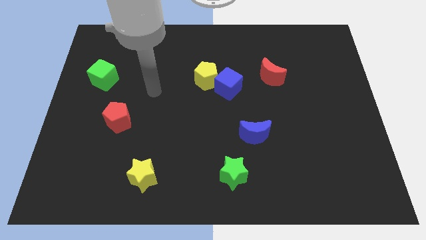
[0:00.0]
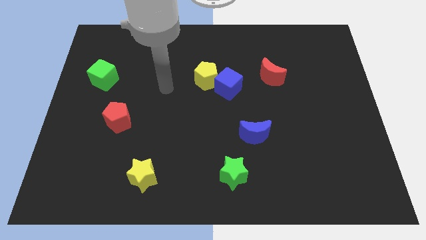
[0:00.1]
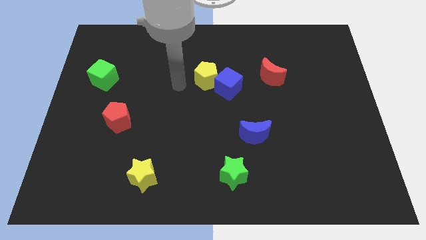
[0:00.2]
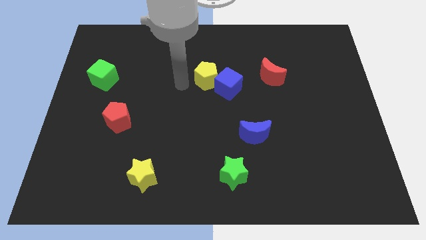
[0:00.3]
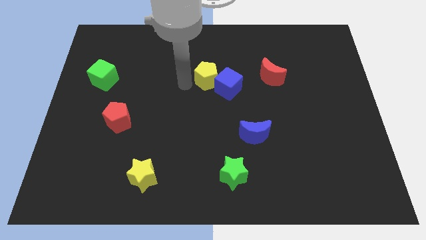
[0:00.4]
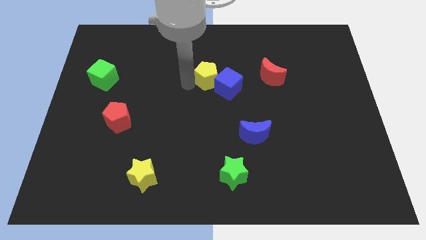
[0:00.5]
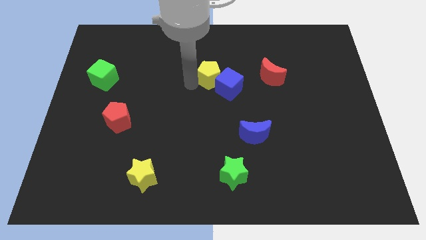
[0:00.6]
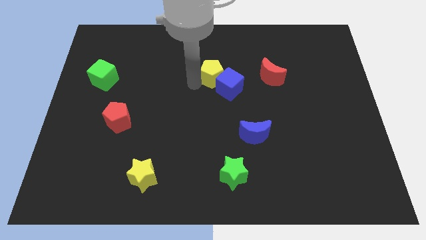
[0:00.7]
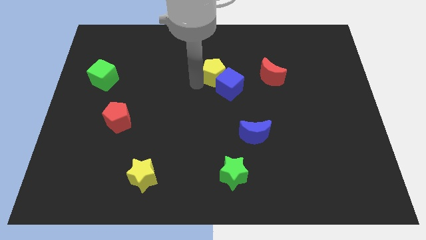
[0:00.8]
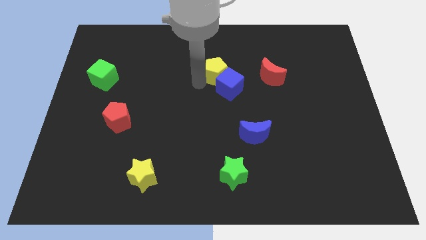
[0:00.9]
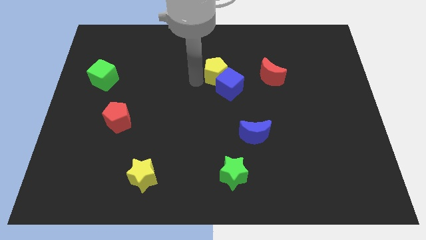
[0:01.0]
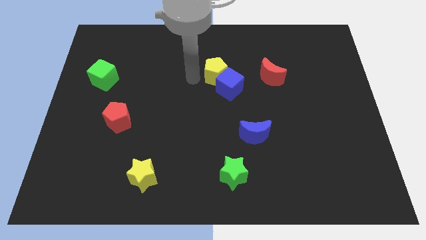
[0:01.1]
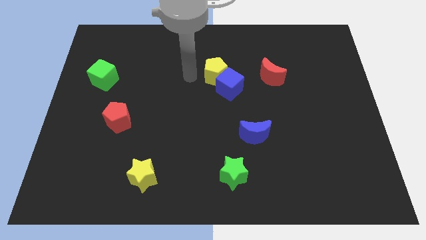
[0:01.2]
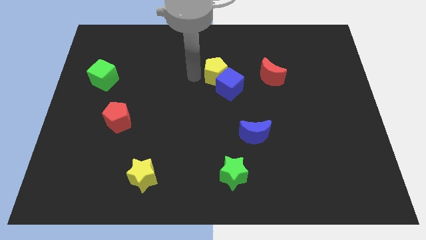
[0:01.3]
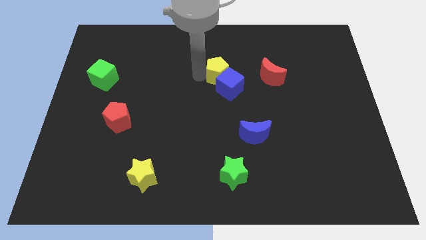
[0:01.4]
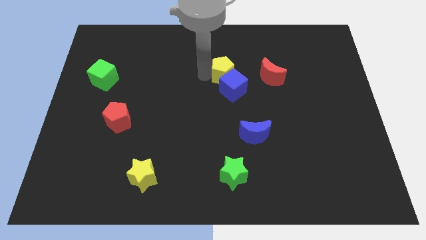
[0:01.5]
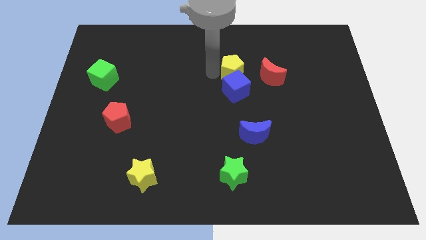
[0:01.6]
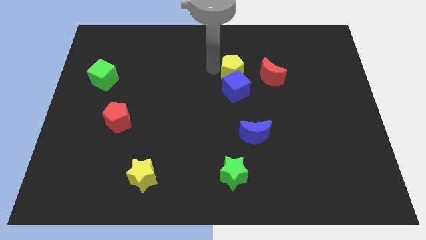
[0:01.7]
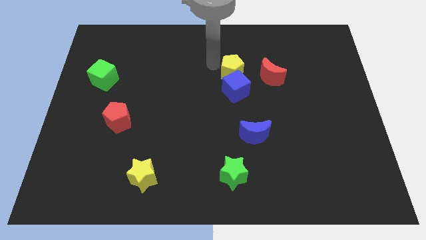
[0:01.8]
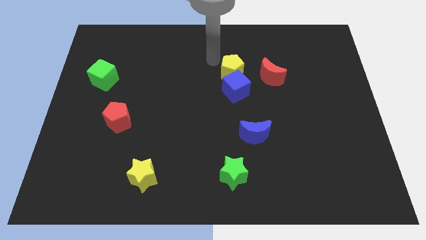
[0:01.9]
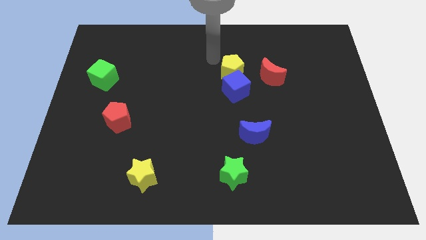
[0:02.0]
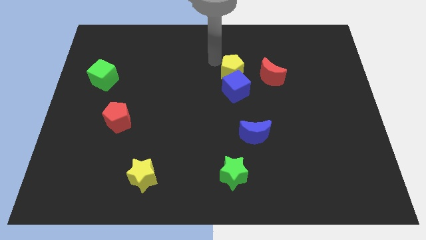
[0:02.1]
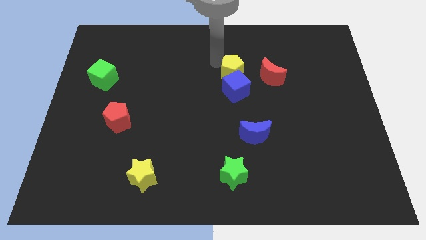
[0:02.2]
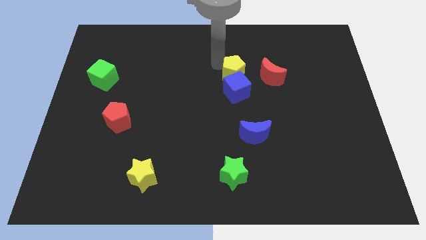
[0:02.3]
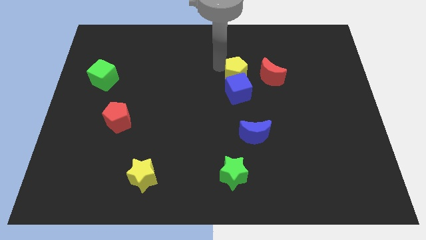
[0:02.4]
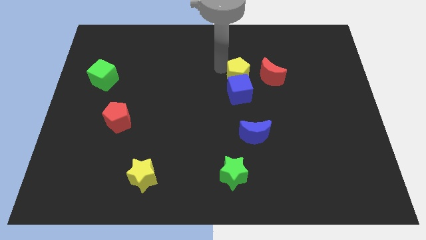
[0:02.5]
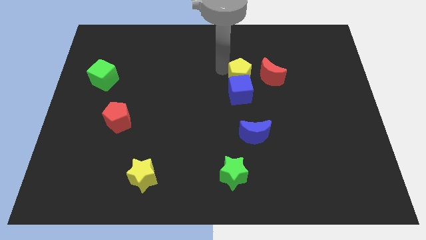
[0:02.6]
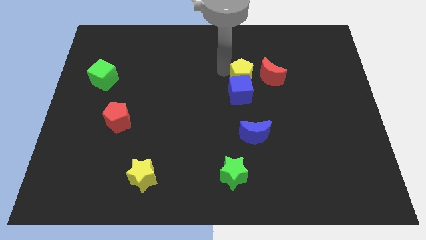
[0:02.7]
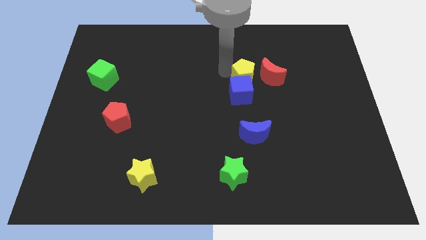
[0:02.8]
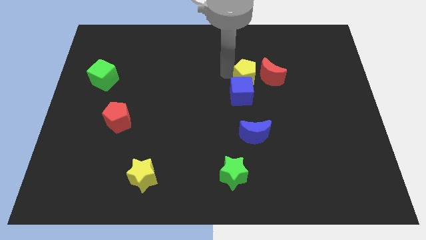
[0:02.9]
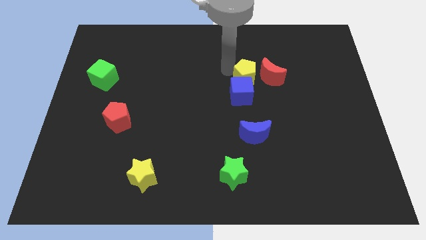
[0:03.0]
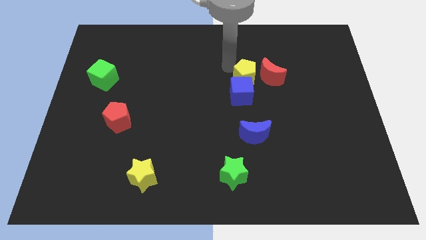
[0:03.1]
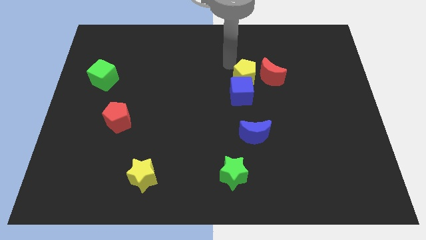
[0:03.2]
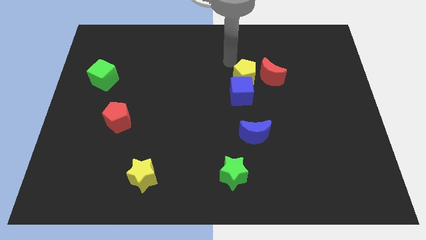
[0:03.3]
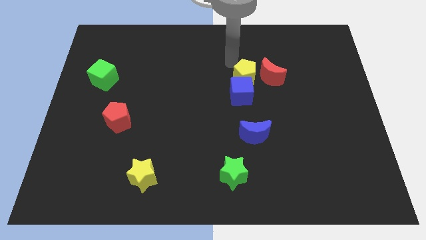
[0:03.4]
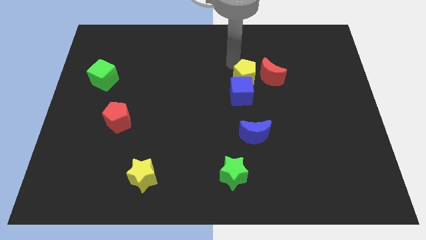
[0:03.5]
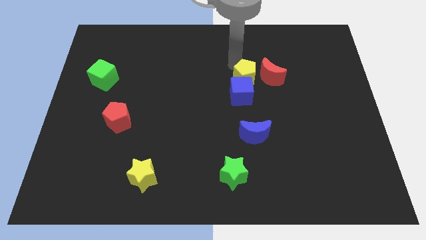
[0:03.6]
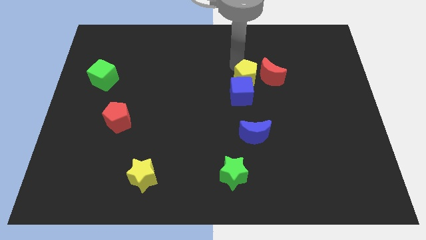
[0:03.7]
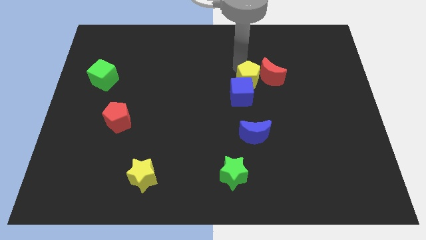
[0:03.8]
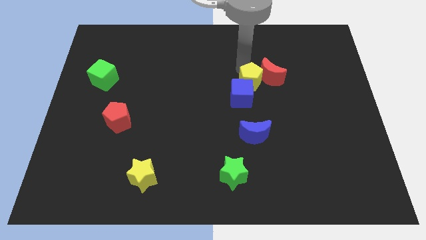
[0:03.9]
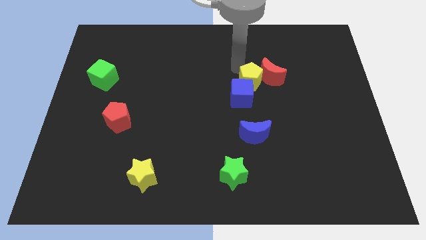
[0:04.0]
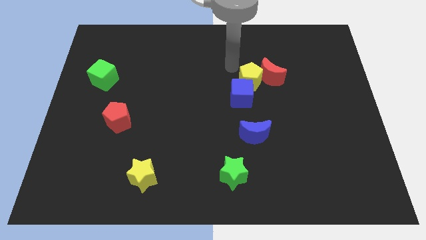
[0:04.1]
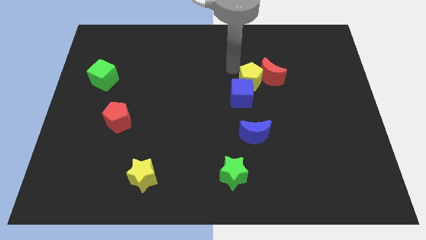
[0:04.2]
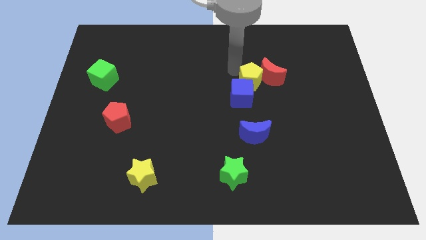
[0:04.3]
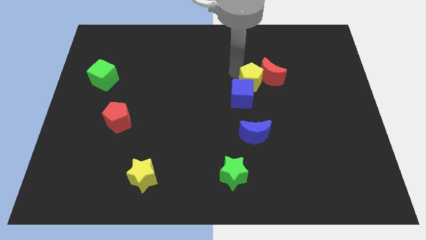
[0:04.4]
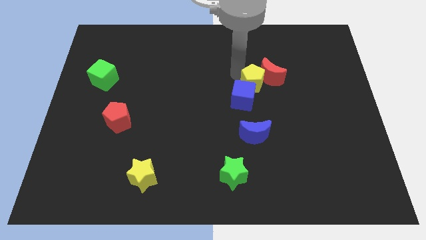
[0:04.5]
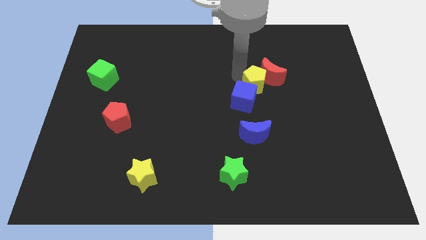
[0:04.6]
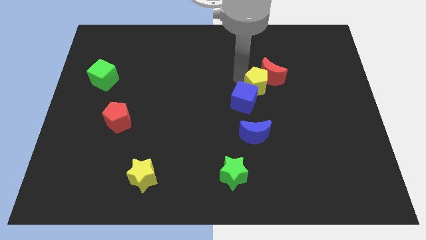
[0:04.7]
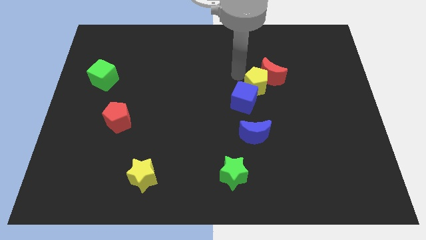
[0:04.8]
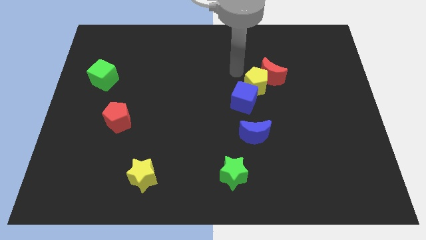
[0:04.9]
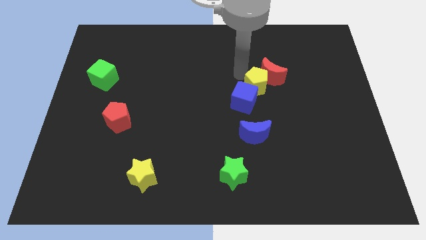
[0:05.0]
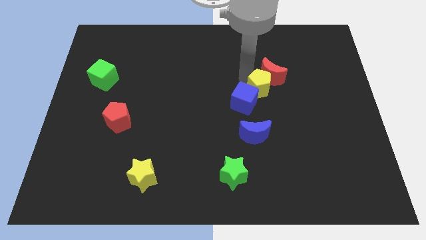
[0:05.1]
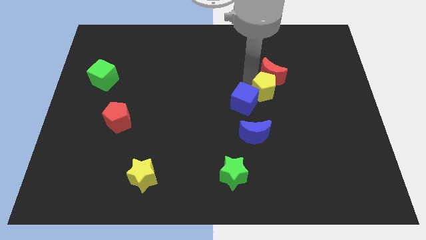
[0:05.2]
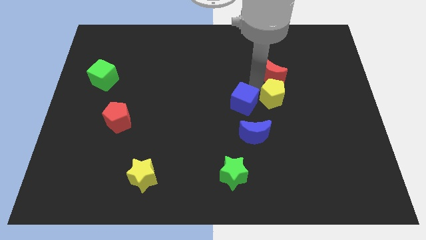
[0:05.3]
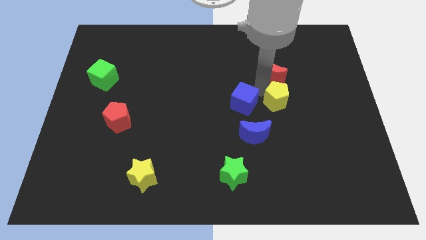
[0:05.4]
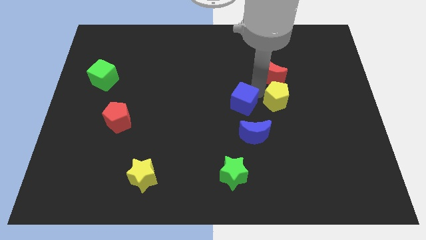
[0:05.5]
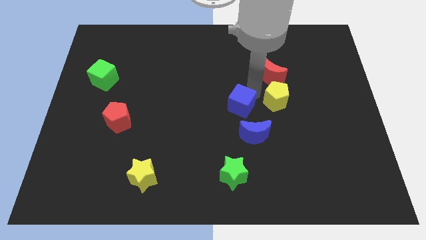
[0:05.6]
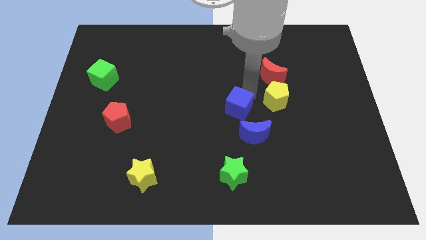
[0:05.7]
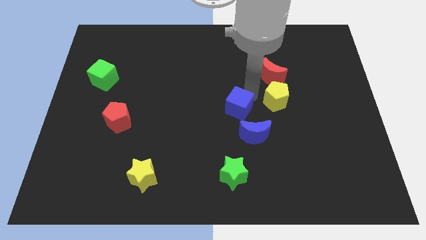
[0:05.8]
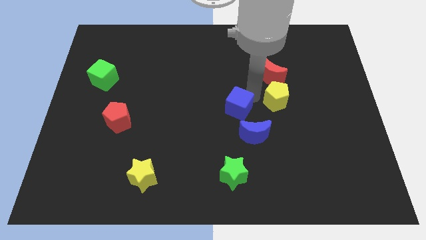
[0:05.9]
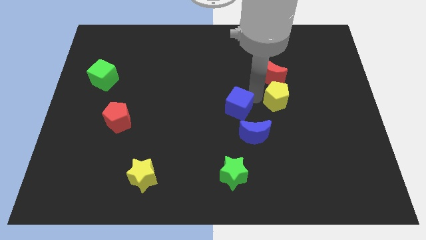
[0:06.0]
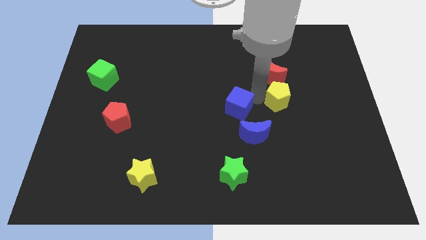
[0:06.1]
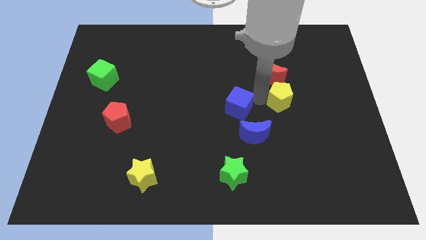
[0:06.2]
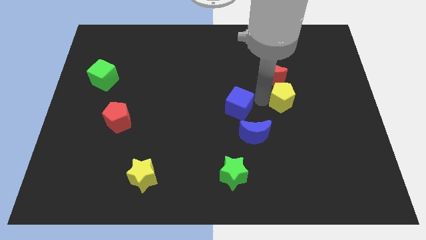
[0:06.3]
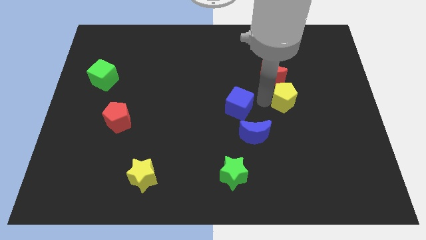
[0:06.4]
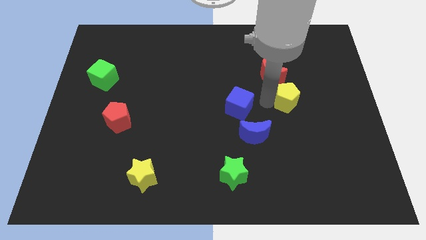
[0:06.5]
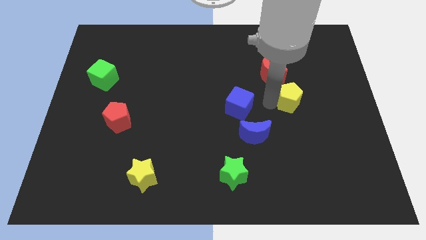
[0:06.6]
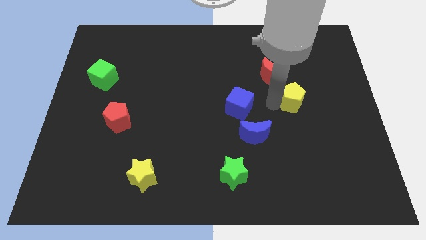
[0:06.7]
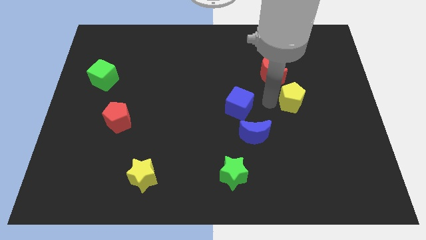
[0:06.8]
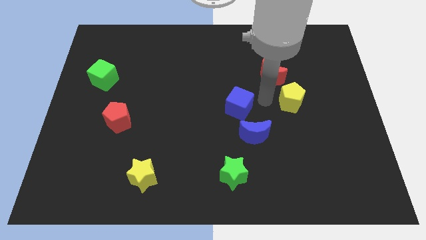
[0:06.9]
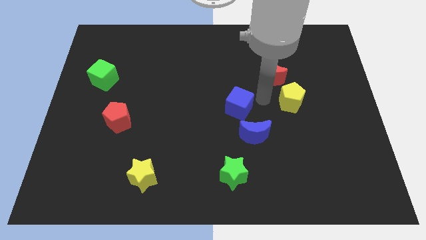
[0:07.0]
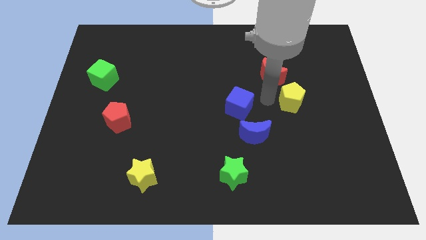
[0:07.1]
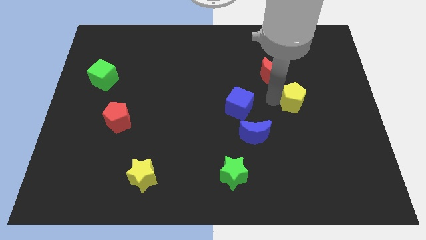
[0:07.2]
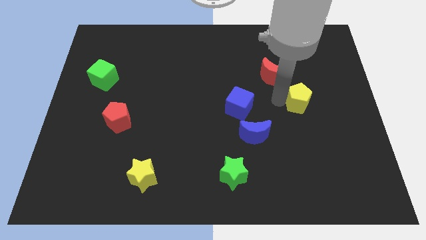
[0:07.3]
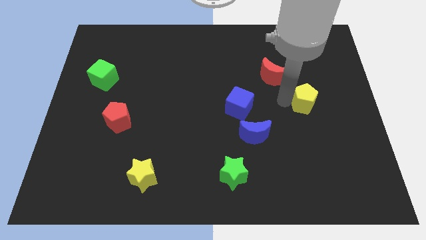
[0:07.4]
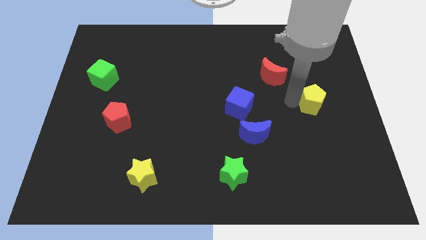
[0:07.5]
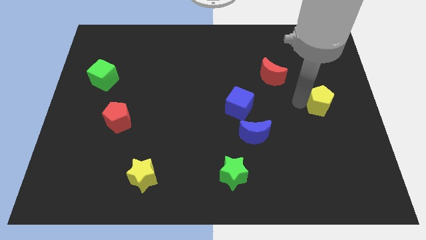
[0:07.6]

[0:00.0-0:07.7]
push the yellow pentagon to the center right
